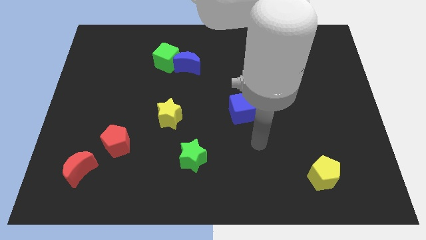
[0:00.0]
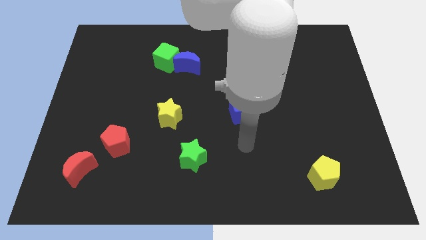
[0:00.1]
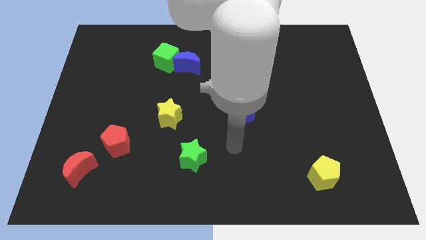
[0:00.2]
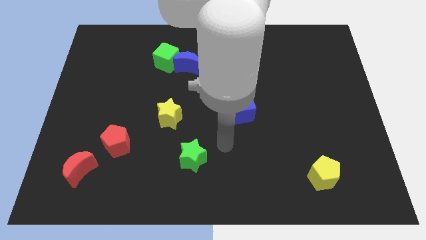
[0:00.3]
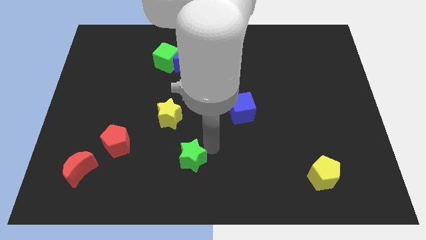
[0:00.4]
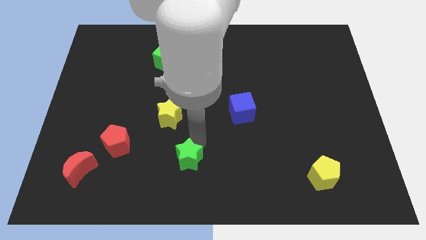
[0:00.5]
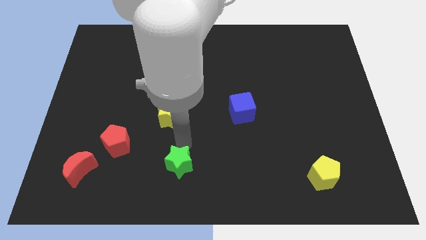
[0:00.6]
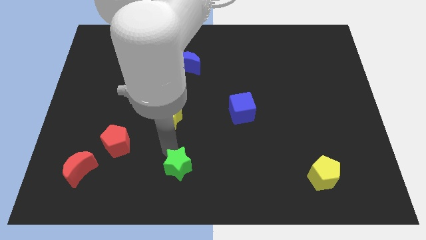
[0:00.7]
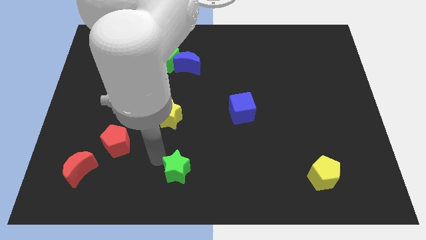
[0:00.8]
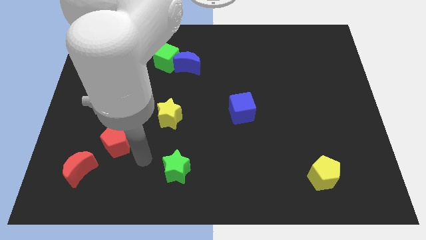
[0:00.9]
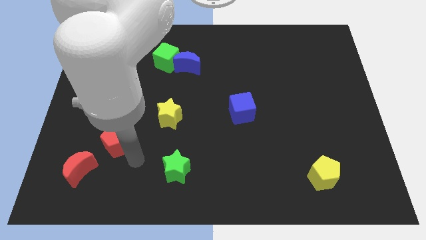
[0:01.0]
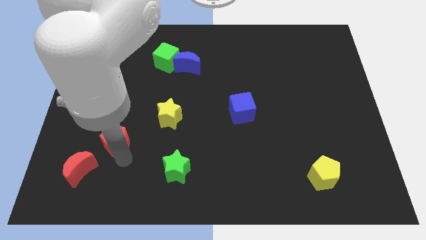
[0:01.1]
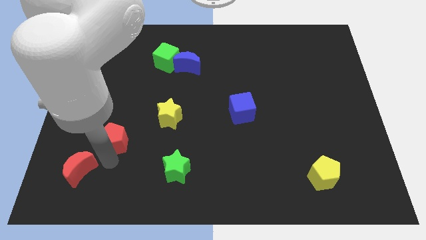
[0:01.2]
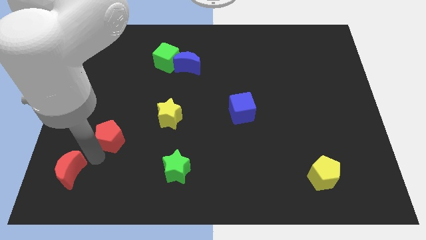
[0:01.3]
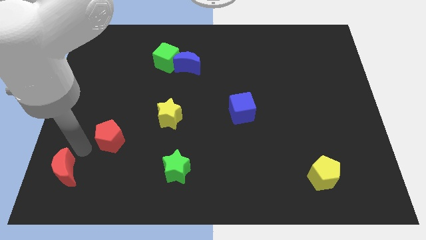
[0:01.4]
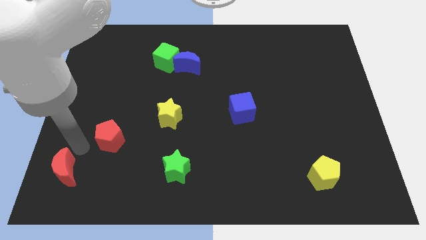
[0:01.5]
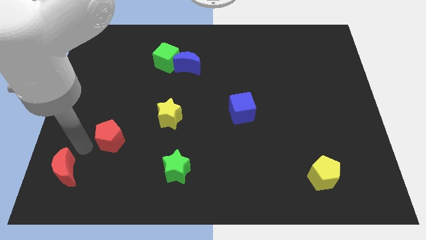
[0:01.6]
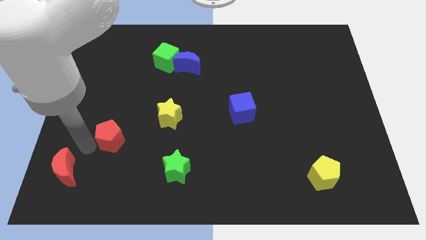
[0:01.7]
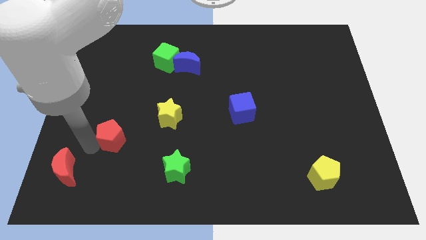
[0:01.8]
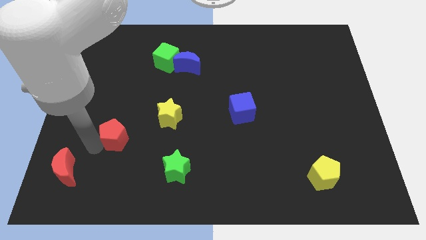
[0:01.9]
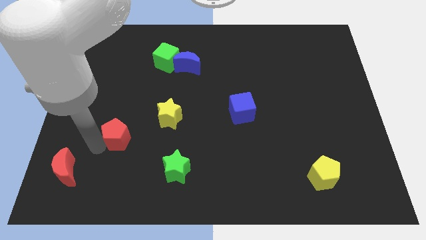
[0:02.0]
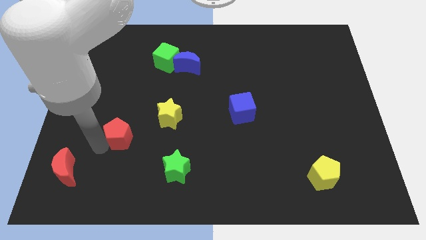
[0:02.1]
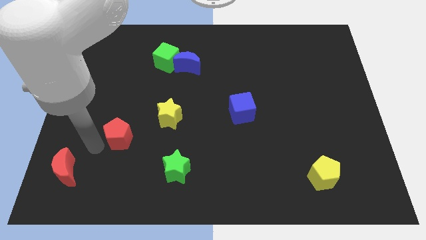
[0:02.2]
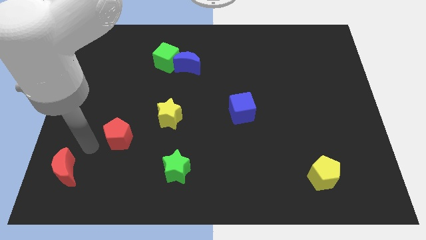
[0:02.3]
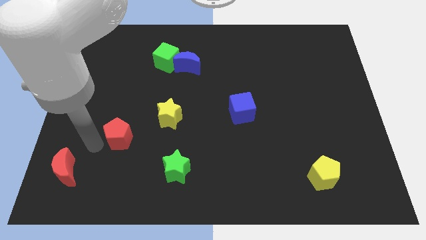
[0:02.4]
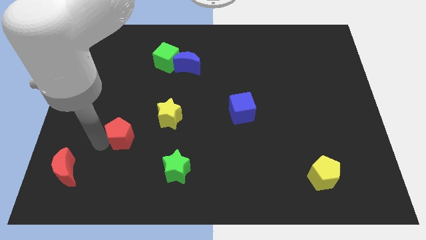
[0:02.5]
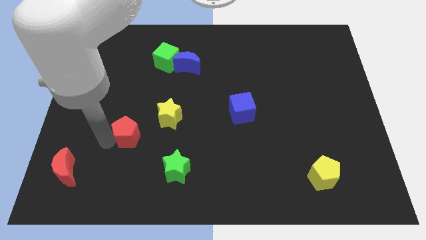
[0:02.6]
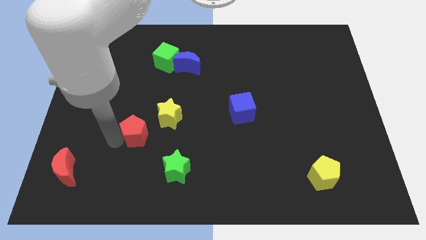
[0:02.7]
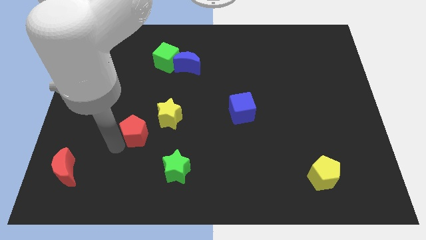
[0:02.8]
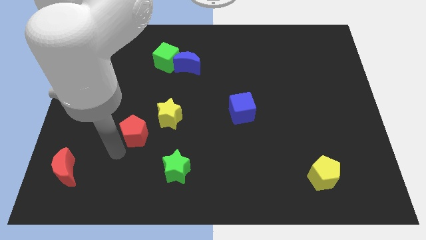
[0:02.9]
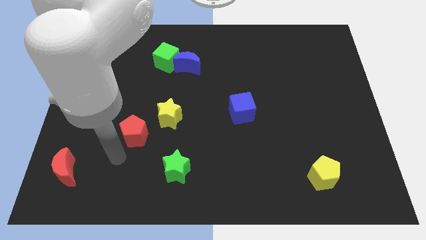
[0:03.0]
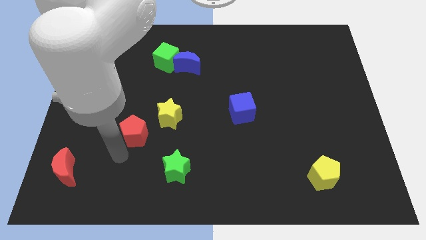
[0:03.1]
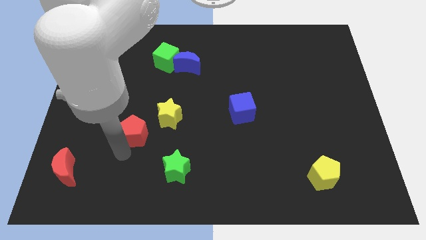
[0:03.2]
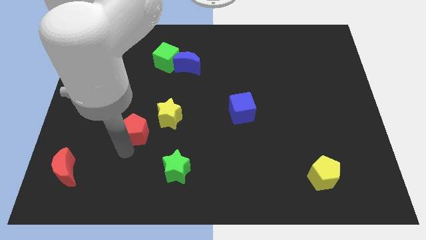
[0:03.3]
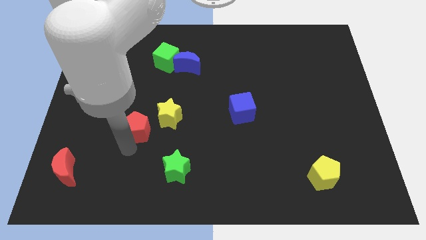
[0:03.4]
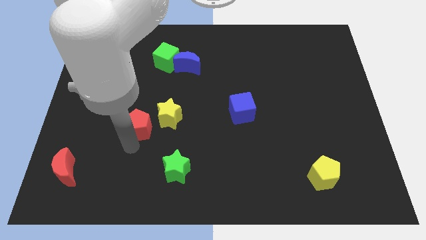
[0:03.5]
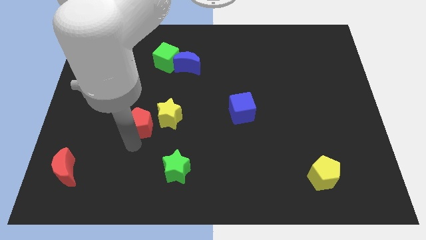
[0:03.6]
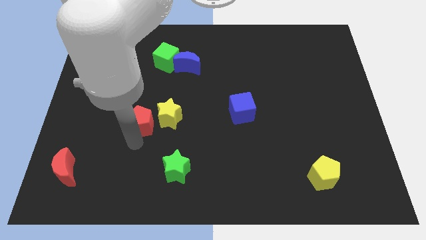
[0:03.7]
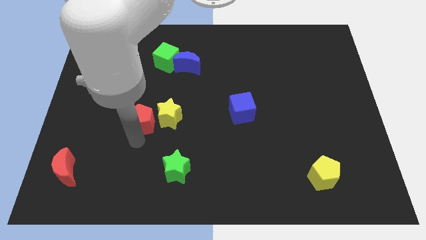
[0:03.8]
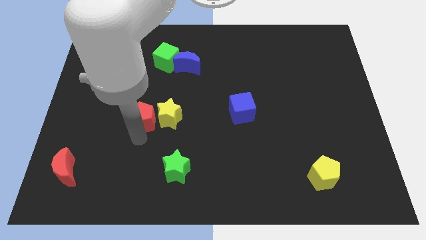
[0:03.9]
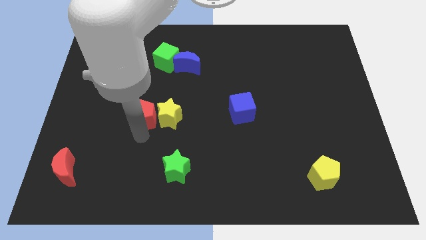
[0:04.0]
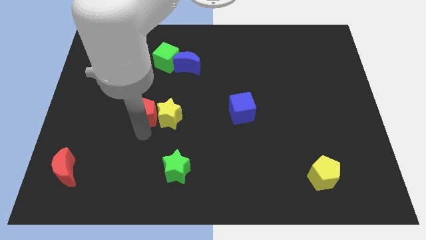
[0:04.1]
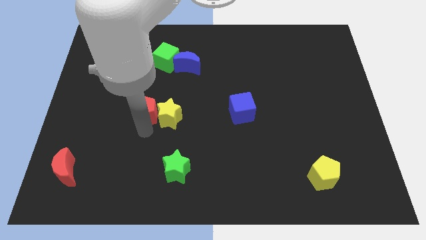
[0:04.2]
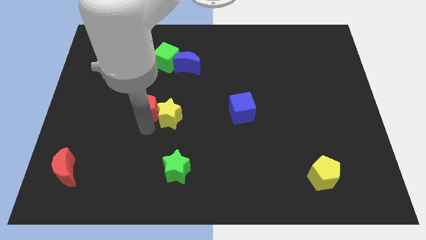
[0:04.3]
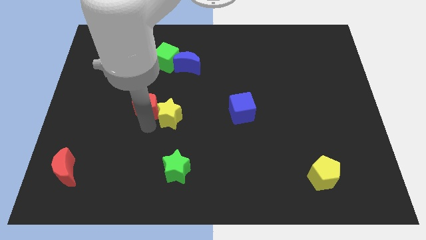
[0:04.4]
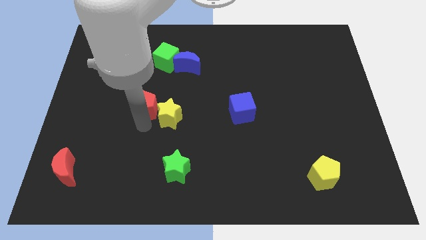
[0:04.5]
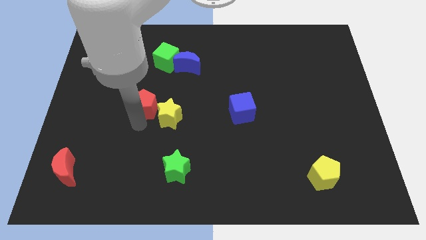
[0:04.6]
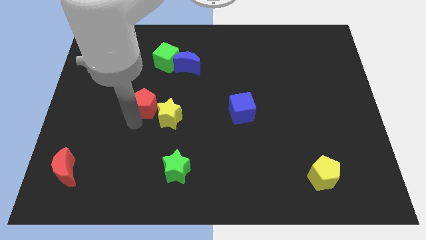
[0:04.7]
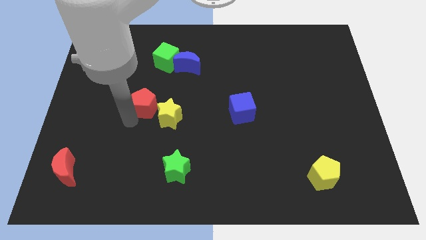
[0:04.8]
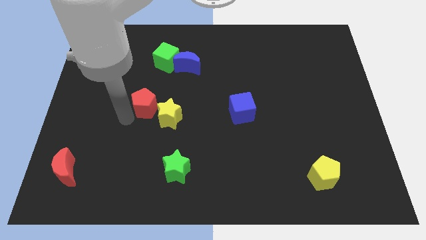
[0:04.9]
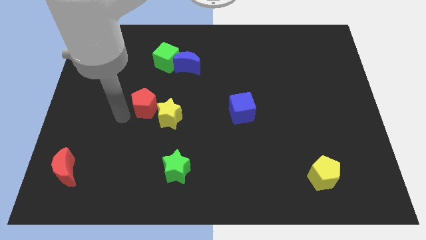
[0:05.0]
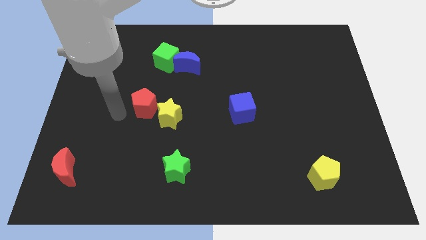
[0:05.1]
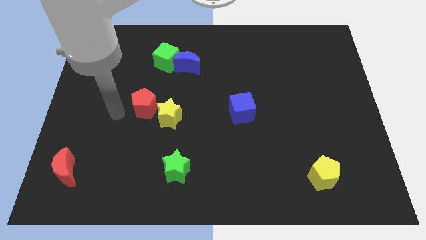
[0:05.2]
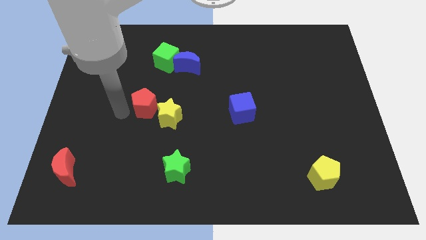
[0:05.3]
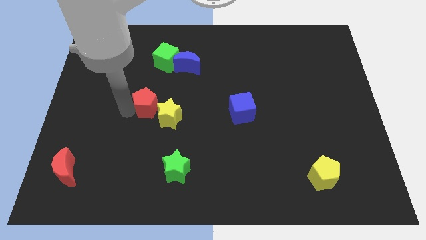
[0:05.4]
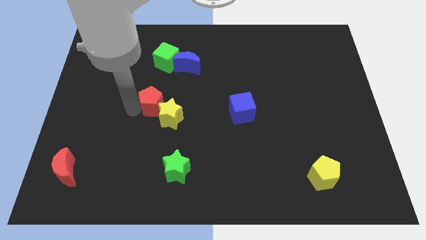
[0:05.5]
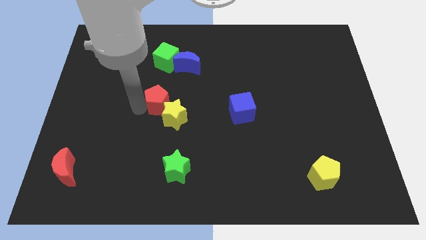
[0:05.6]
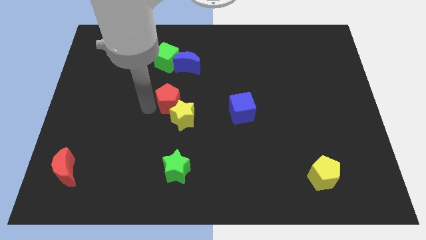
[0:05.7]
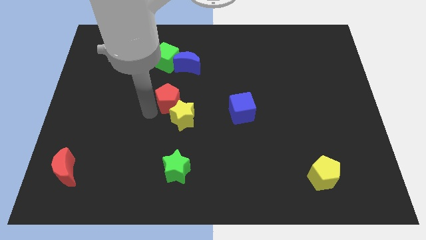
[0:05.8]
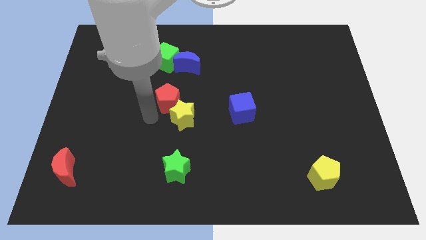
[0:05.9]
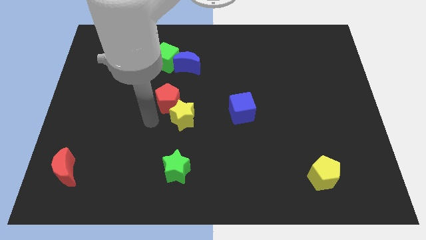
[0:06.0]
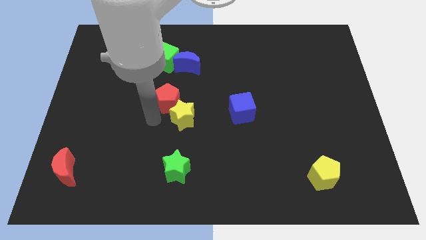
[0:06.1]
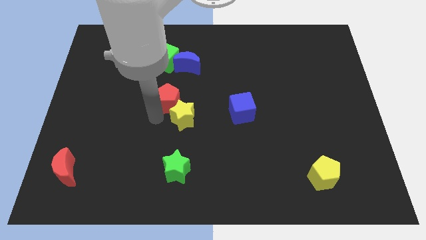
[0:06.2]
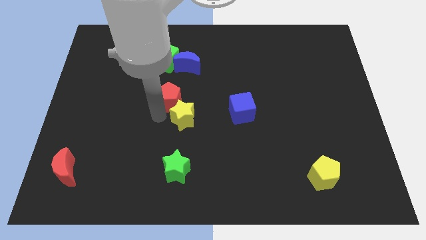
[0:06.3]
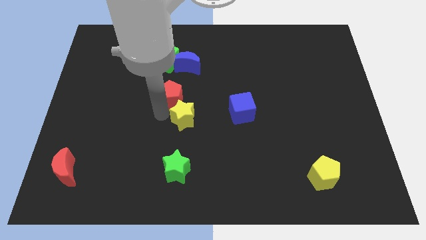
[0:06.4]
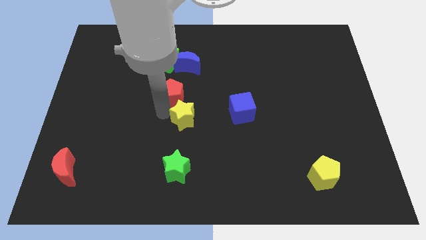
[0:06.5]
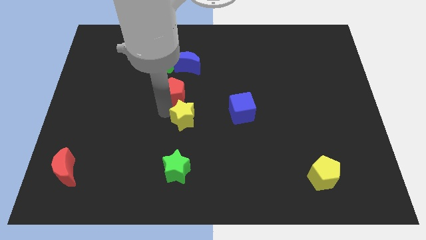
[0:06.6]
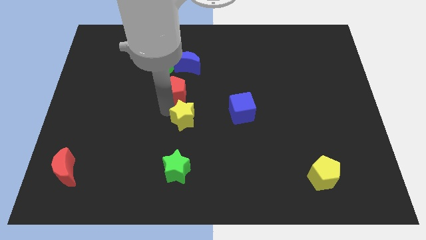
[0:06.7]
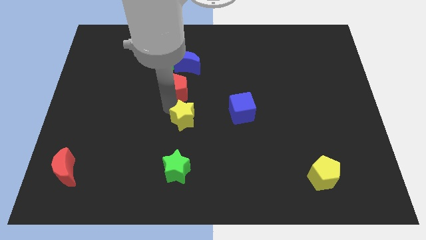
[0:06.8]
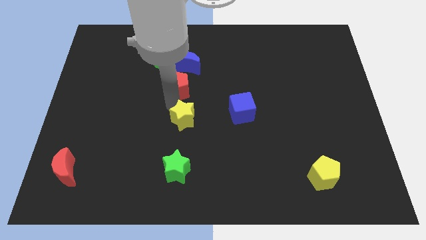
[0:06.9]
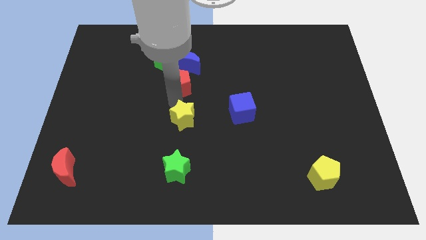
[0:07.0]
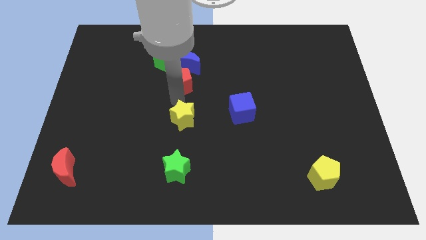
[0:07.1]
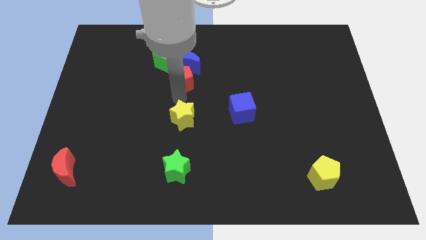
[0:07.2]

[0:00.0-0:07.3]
push the red pentagon close to the blue moon
